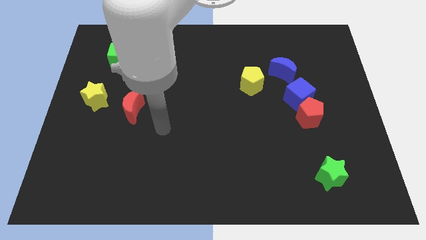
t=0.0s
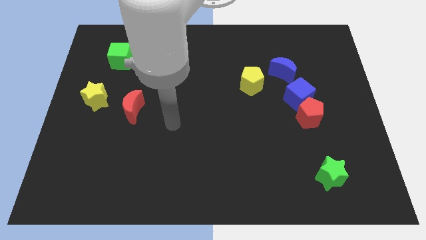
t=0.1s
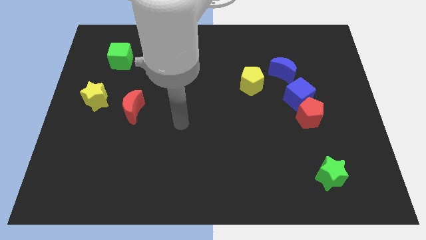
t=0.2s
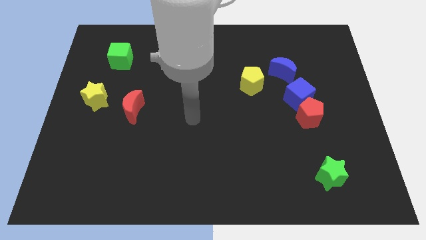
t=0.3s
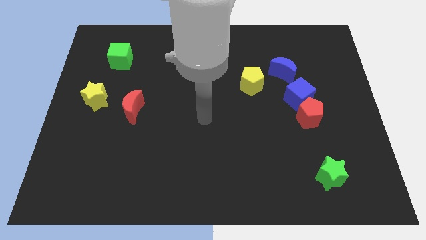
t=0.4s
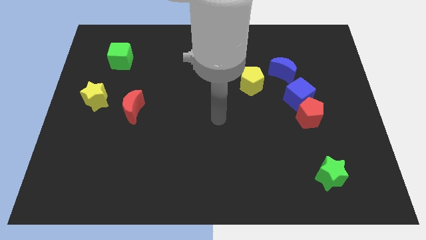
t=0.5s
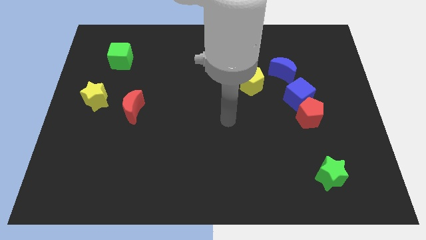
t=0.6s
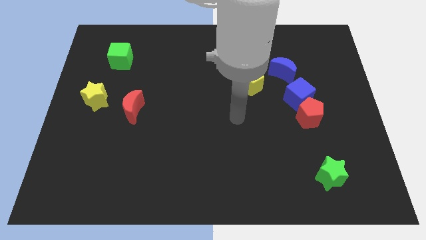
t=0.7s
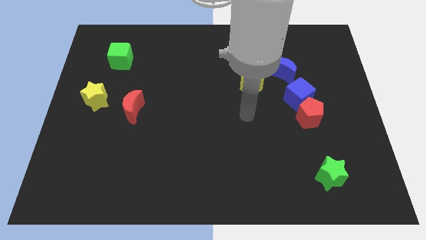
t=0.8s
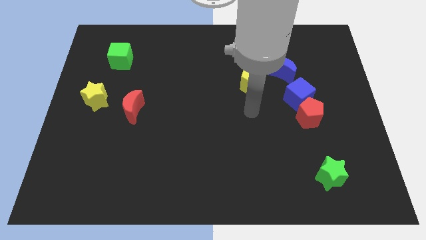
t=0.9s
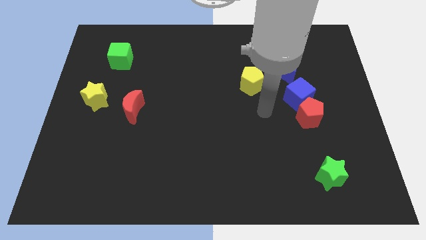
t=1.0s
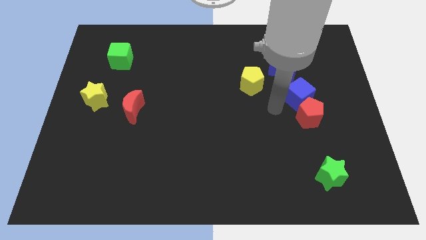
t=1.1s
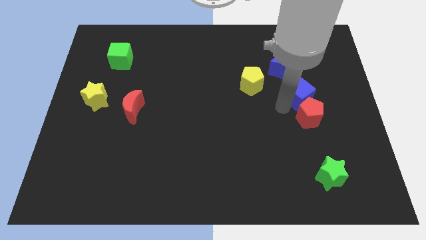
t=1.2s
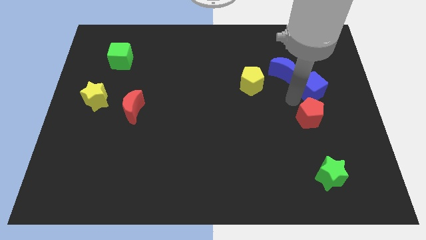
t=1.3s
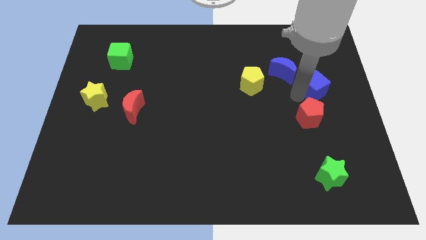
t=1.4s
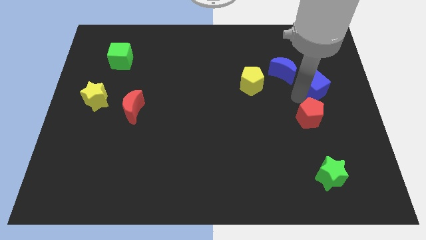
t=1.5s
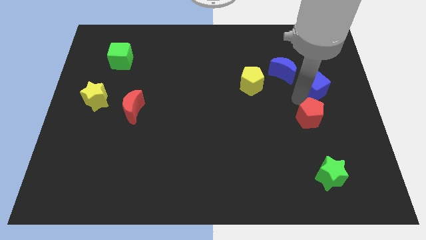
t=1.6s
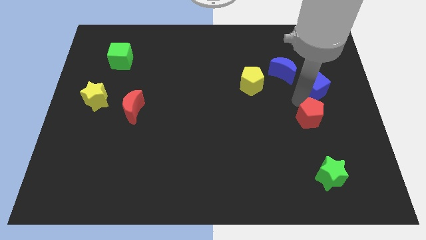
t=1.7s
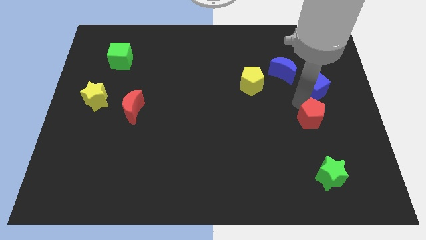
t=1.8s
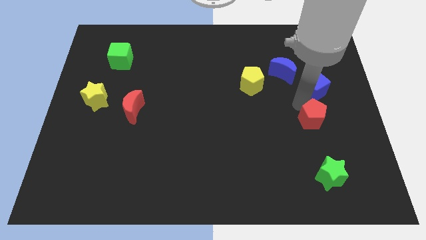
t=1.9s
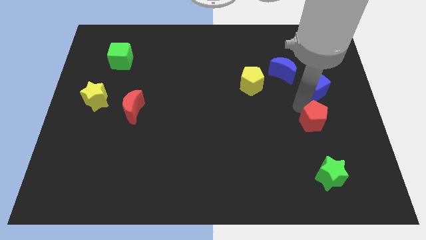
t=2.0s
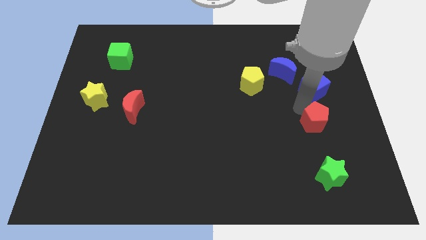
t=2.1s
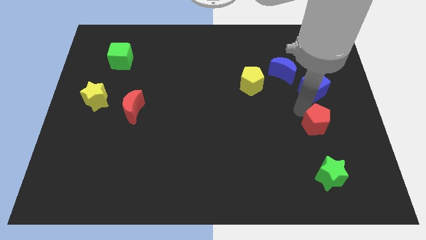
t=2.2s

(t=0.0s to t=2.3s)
move the red pentagon away from the blue cube

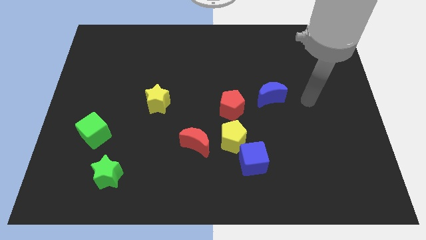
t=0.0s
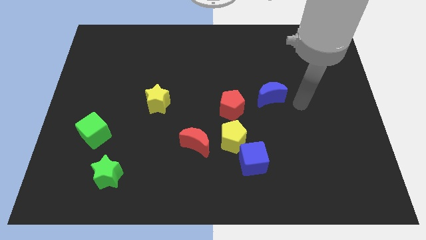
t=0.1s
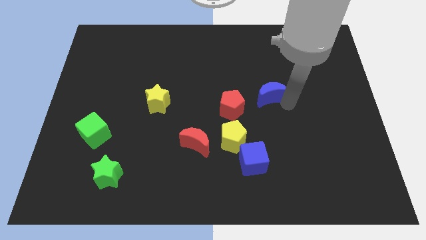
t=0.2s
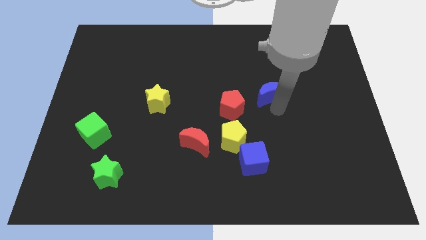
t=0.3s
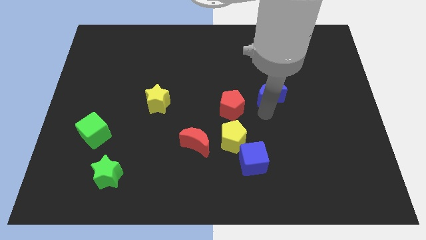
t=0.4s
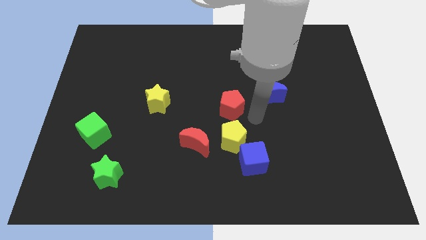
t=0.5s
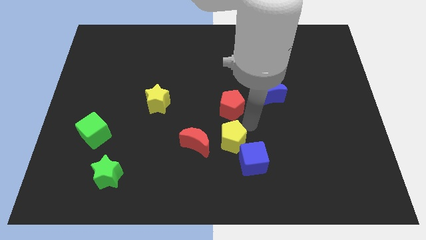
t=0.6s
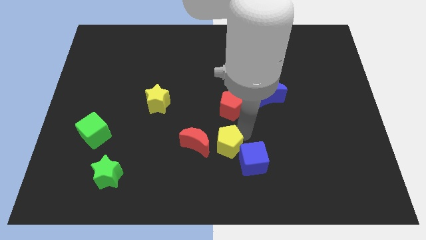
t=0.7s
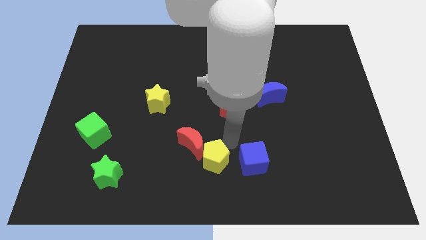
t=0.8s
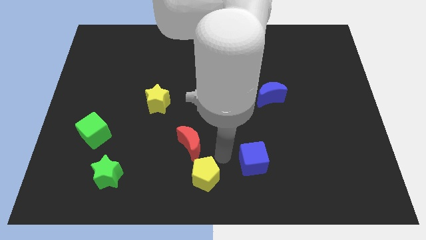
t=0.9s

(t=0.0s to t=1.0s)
separate the blue cube from the yellow pentagon

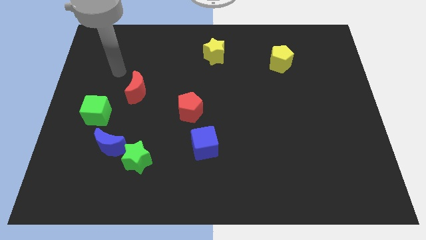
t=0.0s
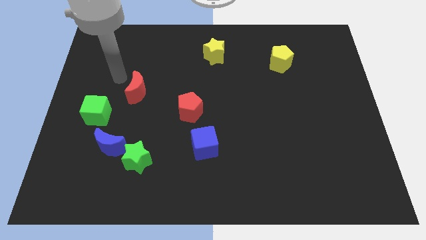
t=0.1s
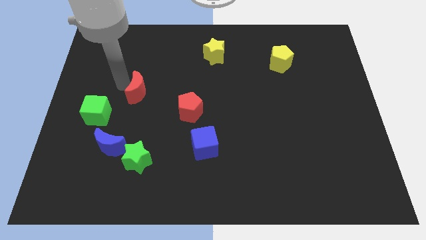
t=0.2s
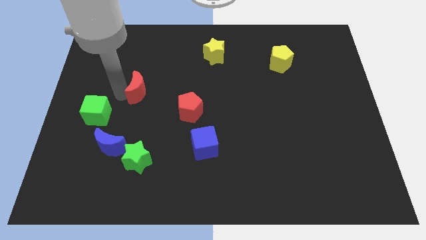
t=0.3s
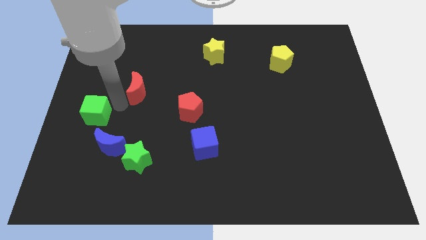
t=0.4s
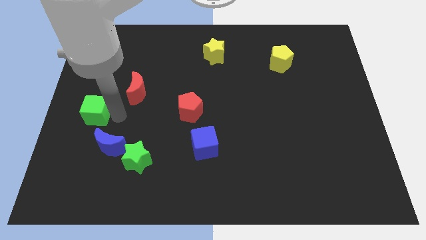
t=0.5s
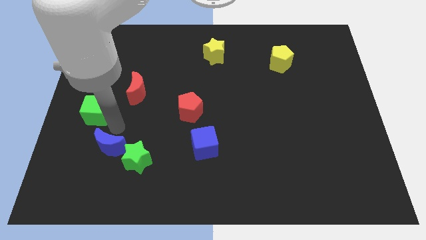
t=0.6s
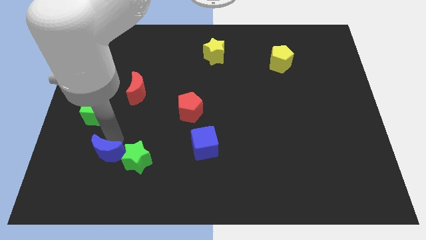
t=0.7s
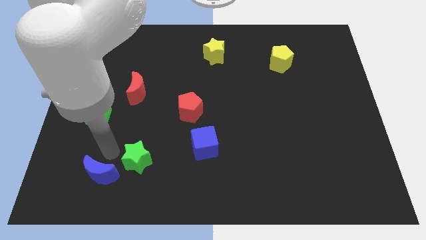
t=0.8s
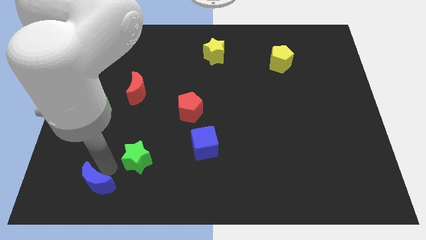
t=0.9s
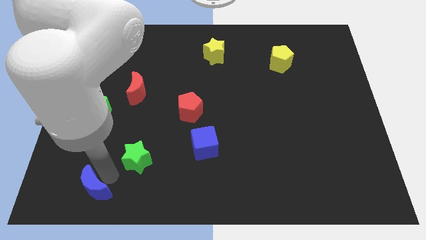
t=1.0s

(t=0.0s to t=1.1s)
separate the green star from the blue moon

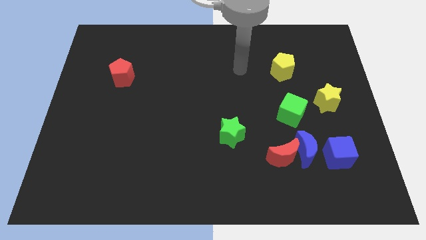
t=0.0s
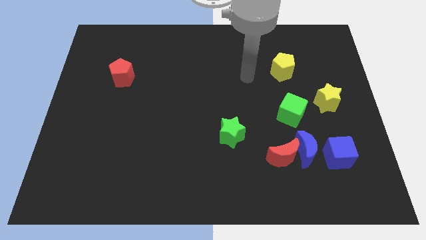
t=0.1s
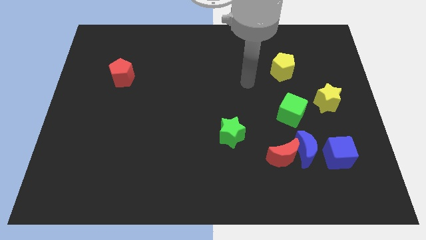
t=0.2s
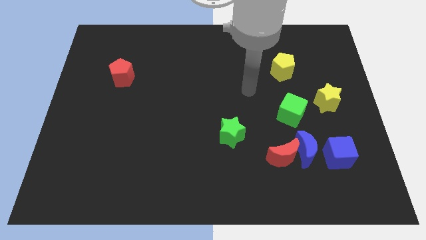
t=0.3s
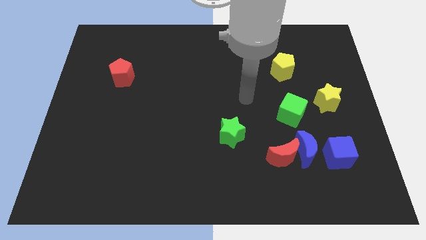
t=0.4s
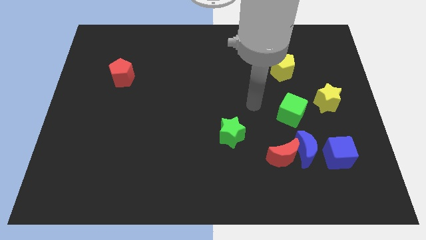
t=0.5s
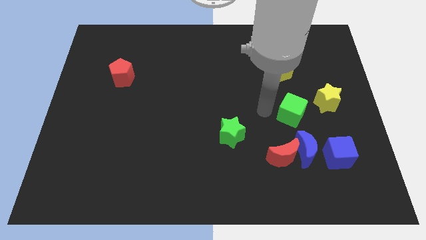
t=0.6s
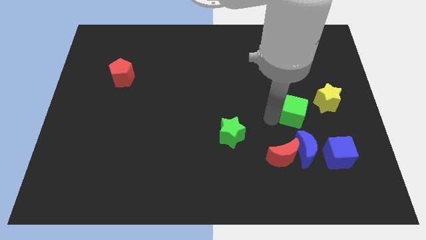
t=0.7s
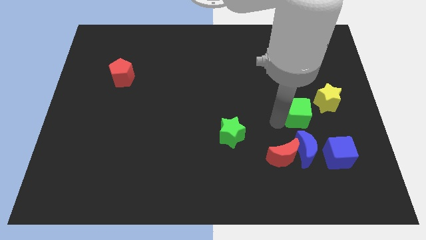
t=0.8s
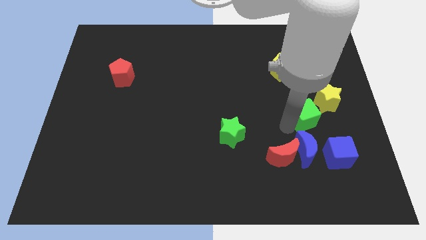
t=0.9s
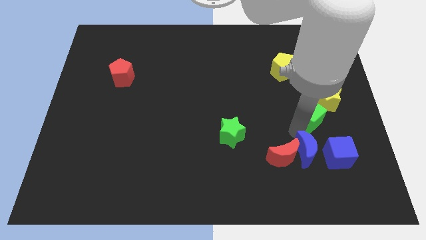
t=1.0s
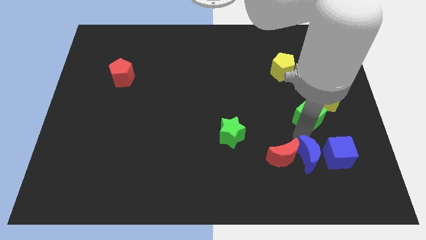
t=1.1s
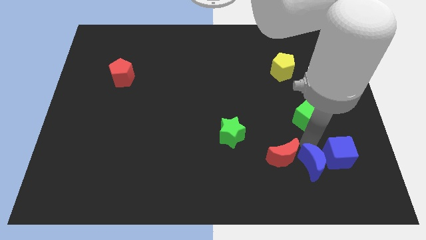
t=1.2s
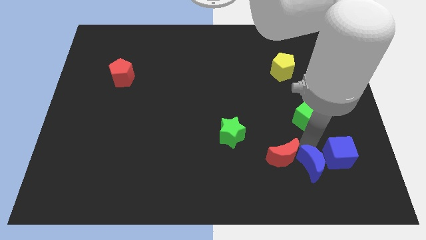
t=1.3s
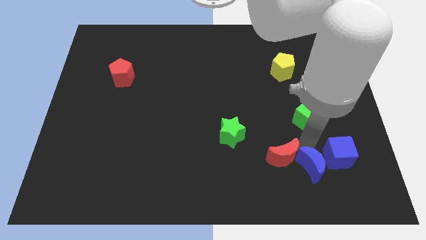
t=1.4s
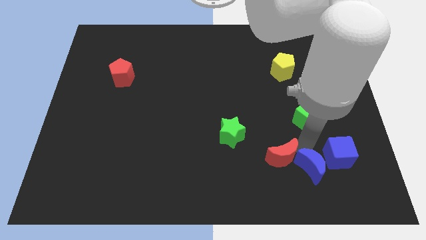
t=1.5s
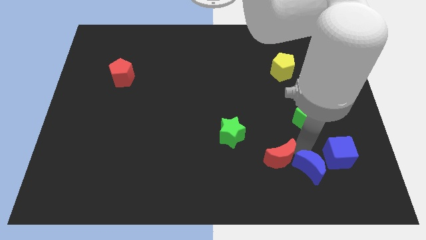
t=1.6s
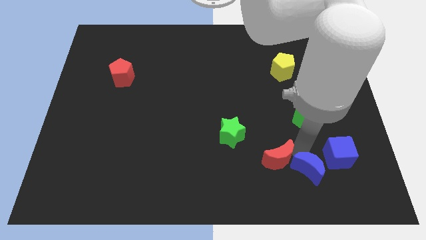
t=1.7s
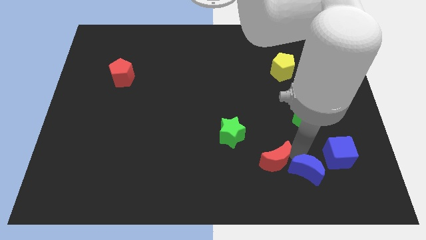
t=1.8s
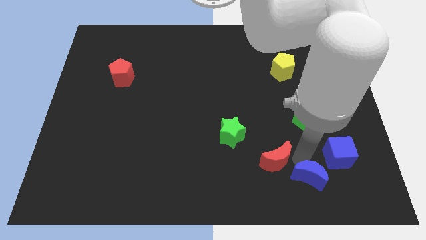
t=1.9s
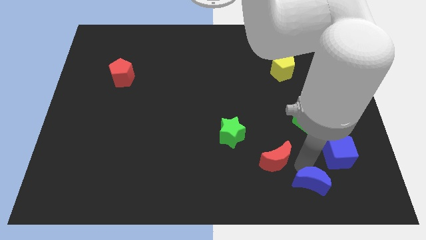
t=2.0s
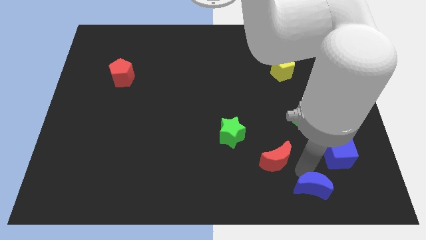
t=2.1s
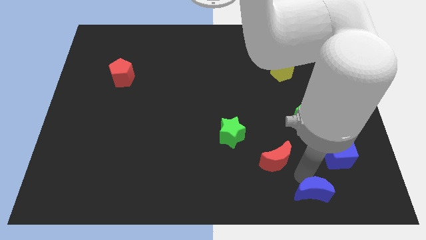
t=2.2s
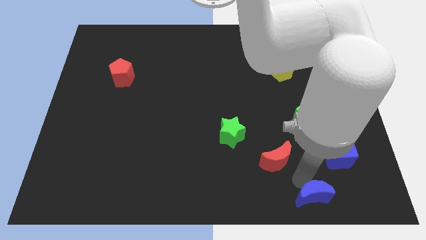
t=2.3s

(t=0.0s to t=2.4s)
pull the red moon apart from the blue moon

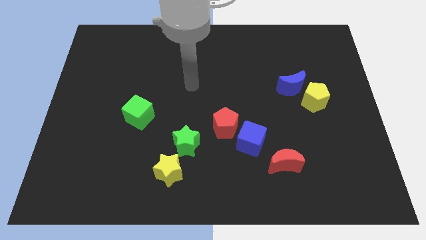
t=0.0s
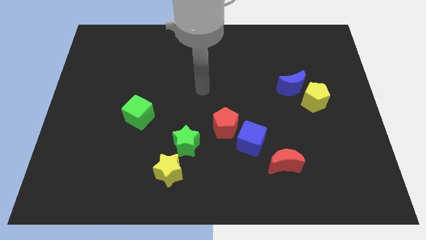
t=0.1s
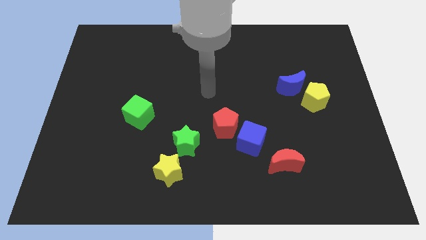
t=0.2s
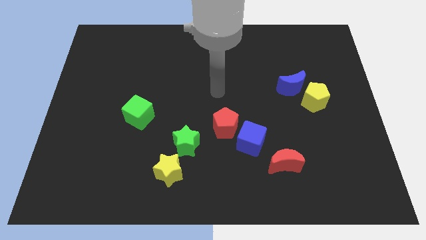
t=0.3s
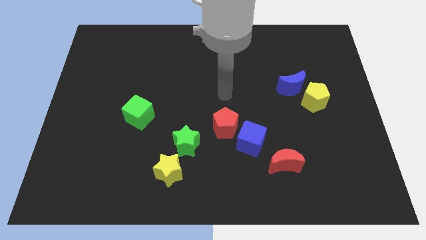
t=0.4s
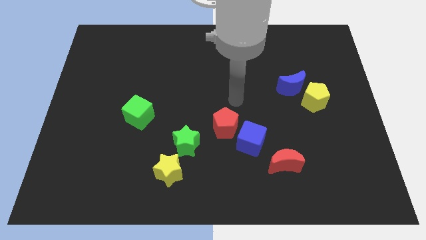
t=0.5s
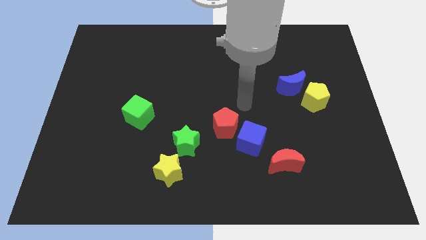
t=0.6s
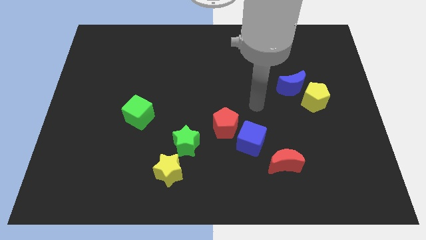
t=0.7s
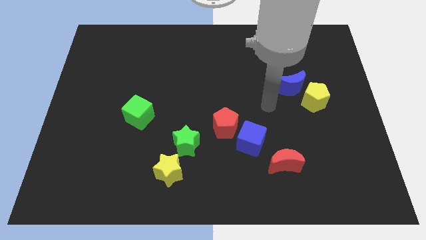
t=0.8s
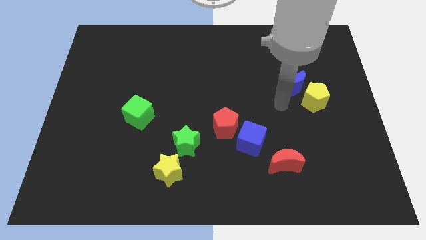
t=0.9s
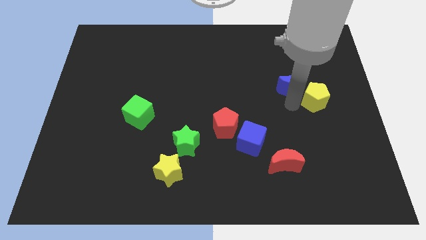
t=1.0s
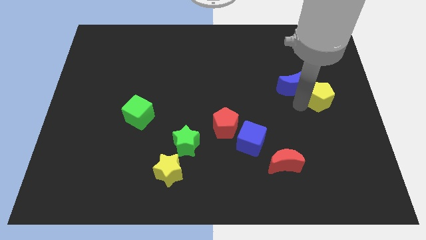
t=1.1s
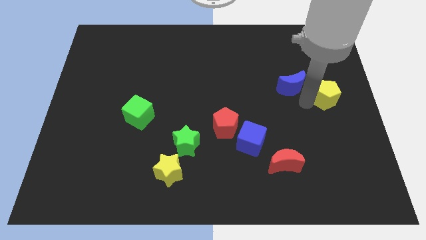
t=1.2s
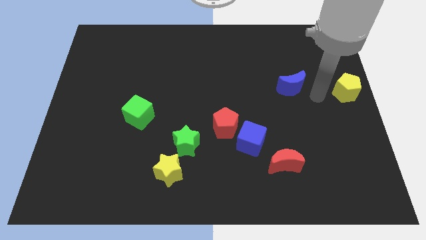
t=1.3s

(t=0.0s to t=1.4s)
separate the blue moon from the yellow pentagon

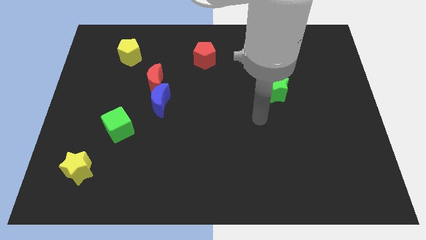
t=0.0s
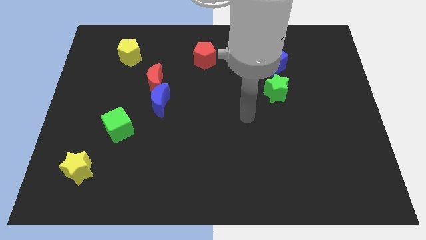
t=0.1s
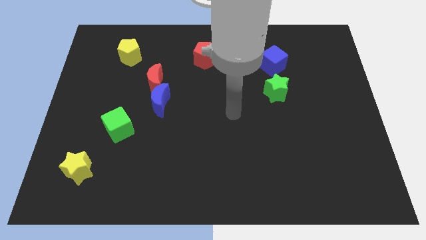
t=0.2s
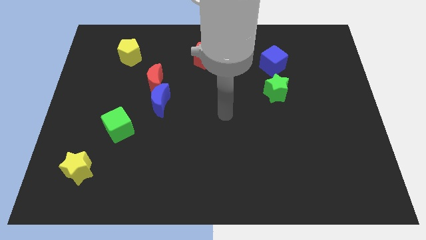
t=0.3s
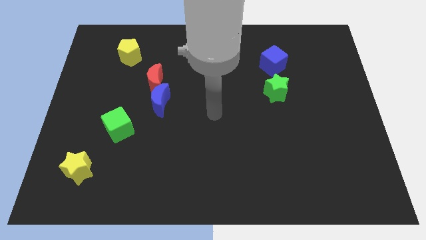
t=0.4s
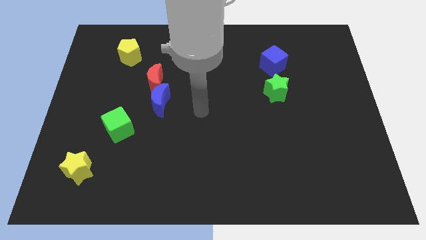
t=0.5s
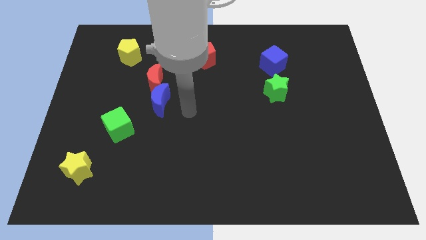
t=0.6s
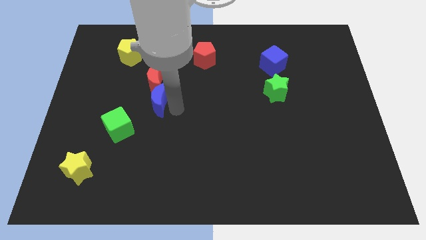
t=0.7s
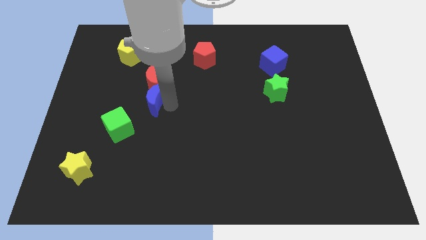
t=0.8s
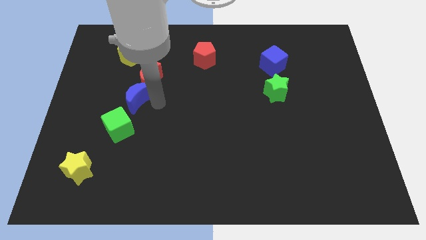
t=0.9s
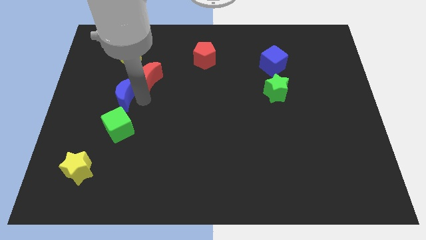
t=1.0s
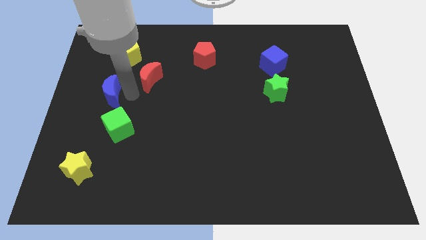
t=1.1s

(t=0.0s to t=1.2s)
move the red moon away from the blue moon
